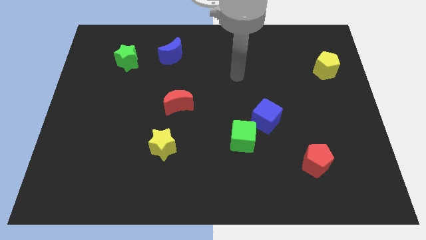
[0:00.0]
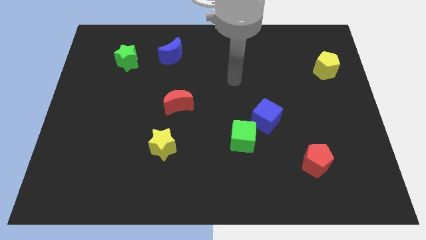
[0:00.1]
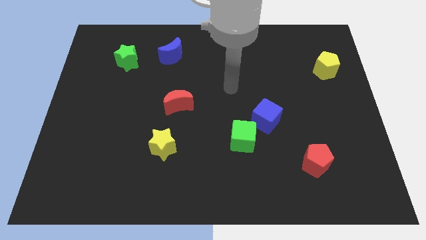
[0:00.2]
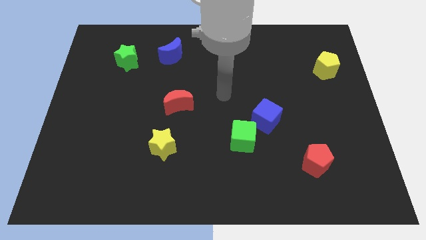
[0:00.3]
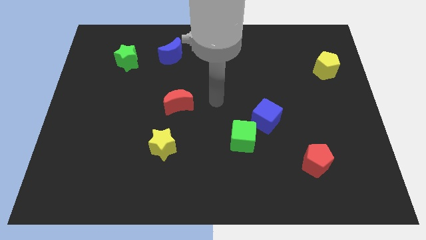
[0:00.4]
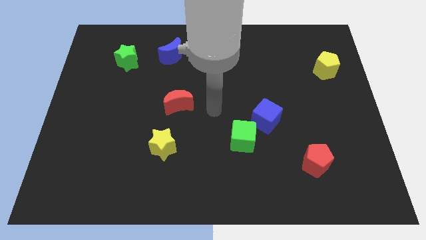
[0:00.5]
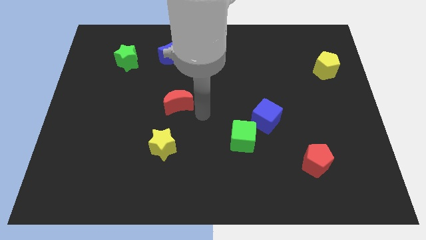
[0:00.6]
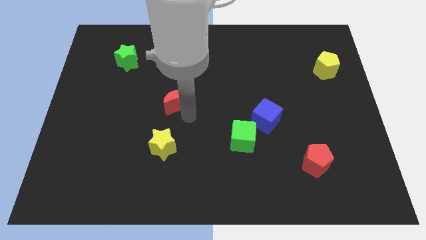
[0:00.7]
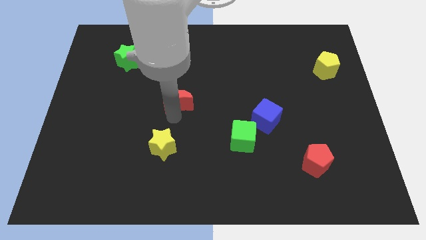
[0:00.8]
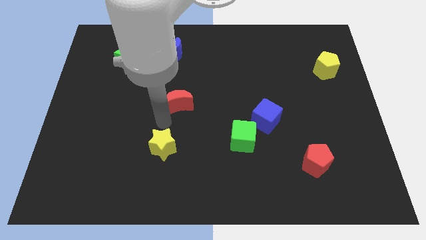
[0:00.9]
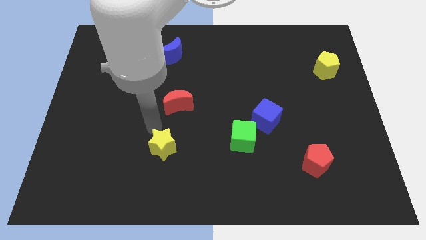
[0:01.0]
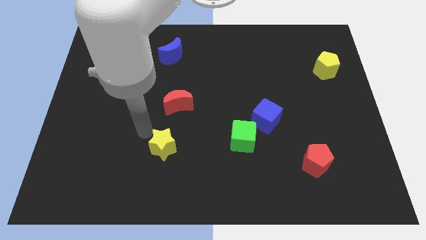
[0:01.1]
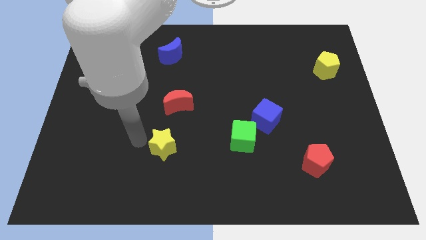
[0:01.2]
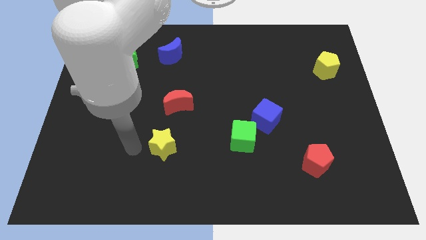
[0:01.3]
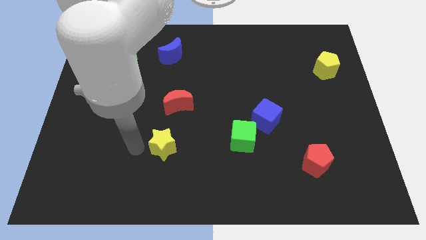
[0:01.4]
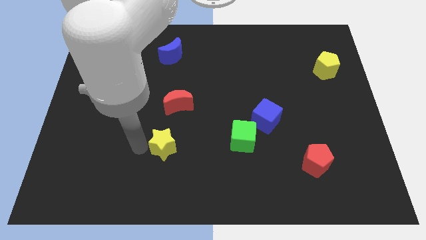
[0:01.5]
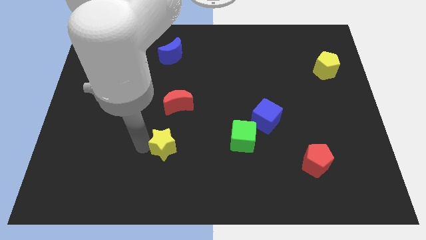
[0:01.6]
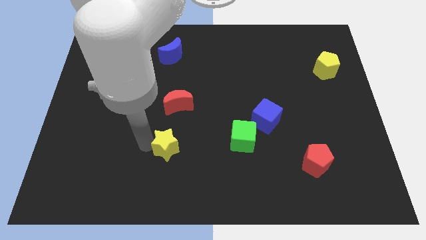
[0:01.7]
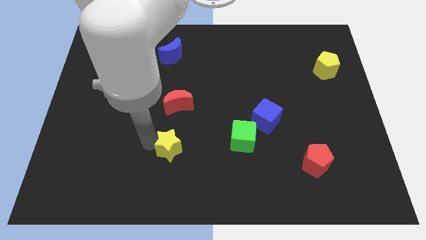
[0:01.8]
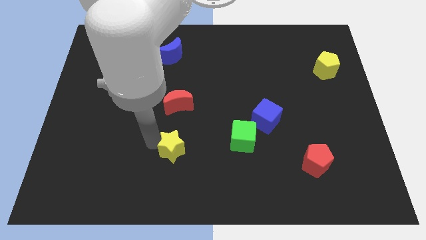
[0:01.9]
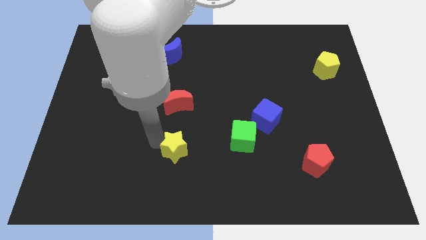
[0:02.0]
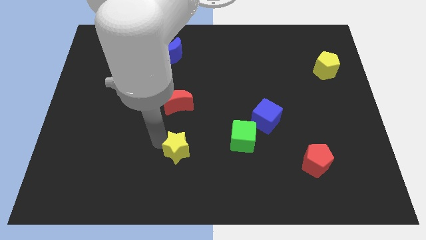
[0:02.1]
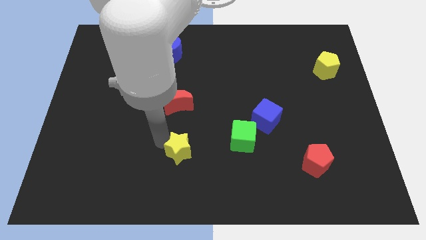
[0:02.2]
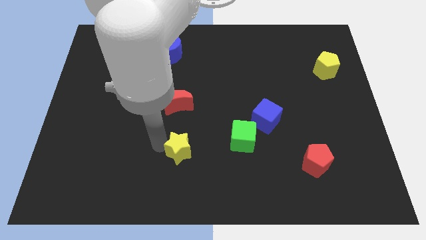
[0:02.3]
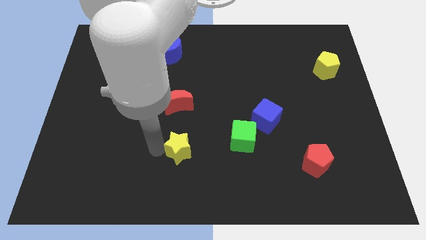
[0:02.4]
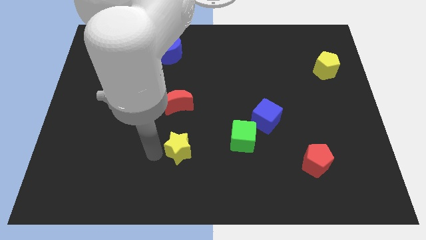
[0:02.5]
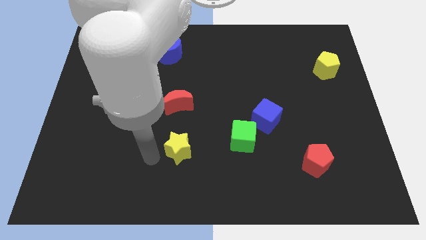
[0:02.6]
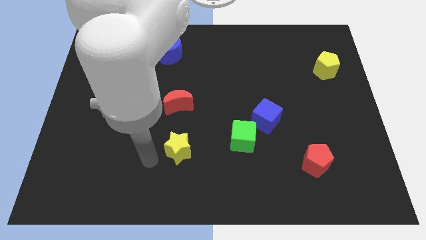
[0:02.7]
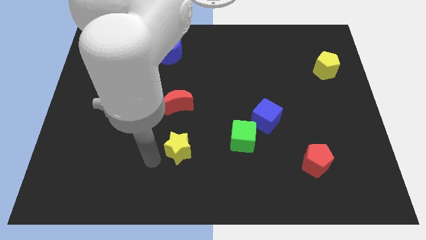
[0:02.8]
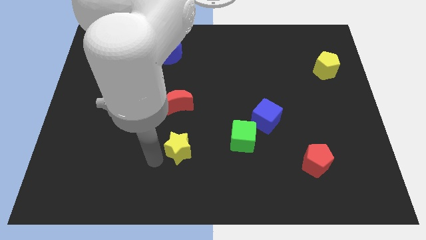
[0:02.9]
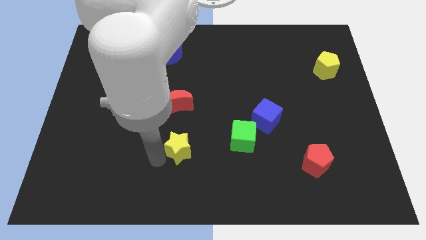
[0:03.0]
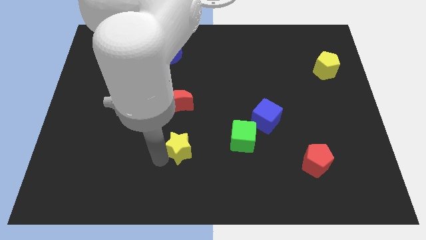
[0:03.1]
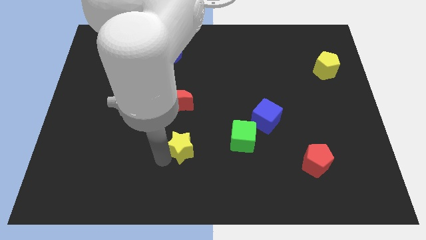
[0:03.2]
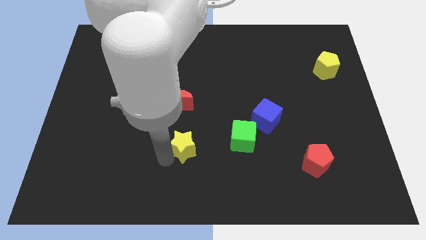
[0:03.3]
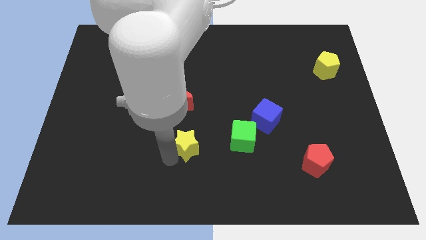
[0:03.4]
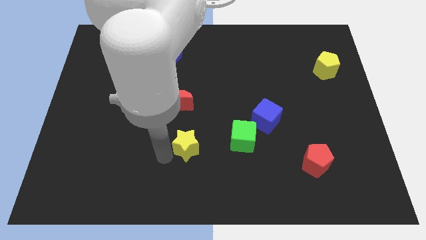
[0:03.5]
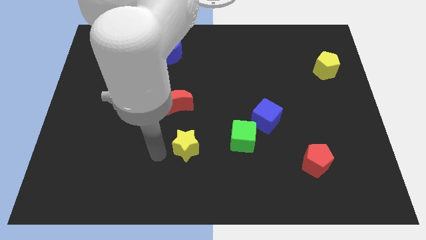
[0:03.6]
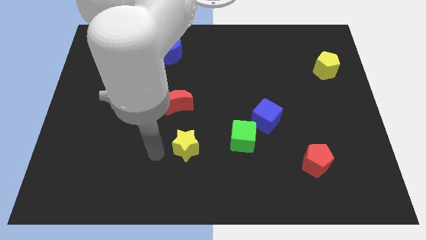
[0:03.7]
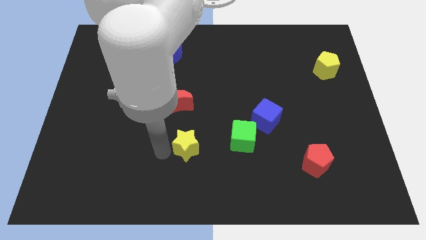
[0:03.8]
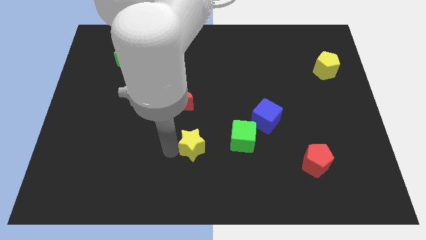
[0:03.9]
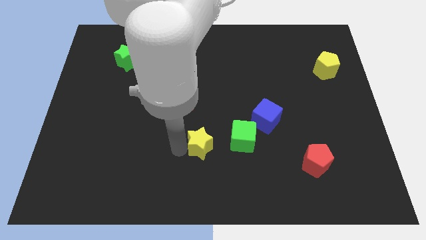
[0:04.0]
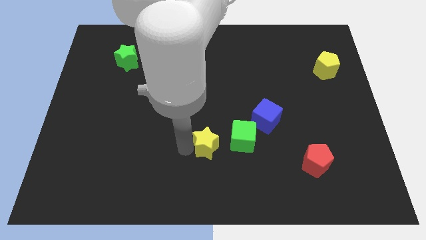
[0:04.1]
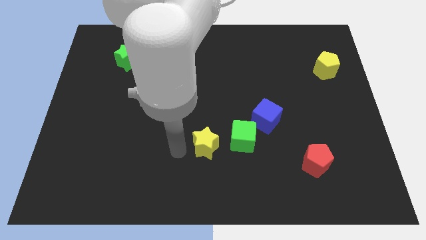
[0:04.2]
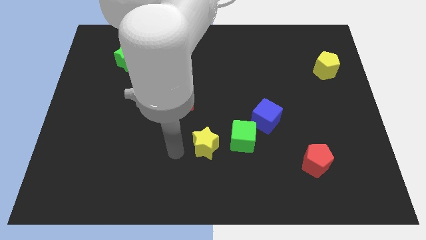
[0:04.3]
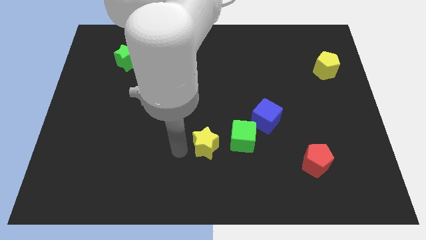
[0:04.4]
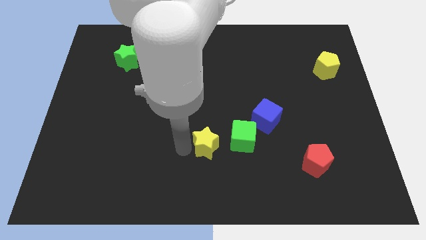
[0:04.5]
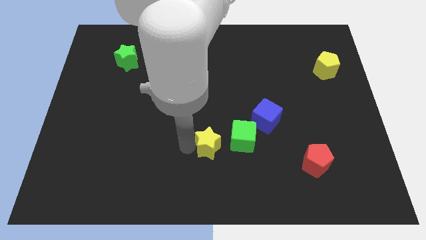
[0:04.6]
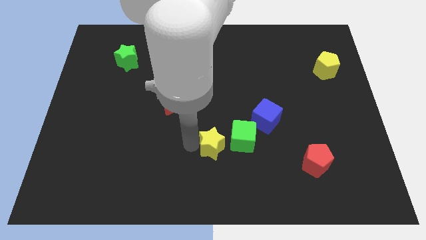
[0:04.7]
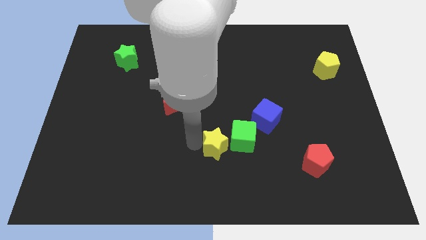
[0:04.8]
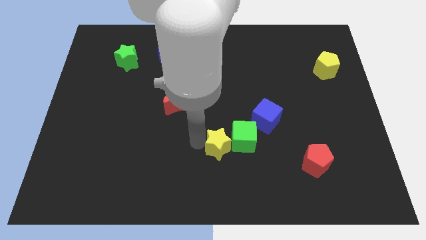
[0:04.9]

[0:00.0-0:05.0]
slide the yellow star towards the green cube

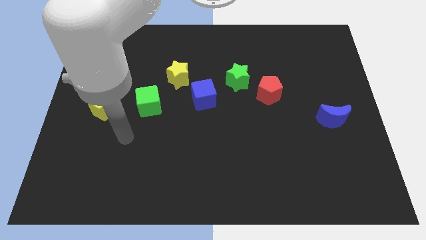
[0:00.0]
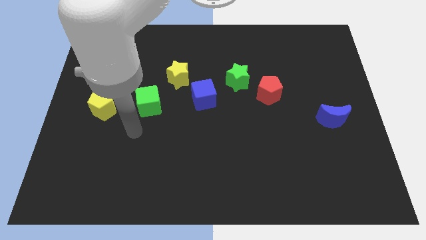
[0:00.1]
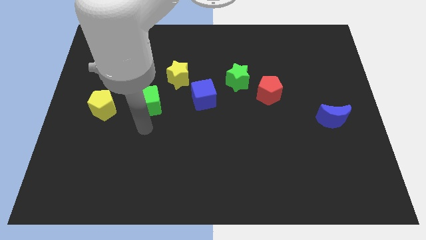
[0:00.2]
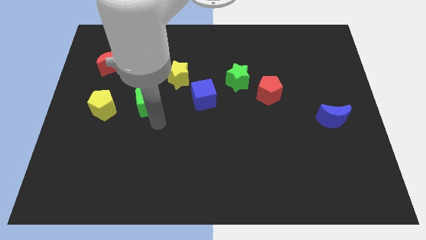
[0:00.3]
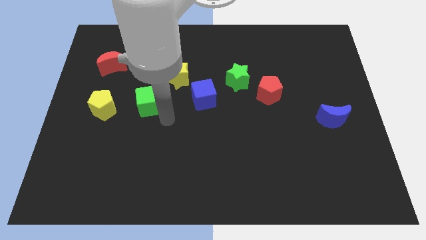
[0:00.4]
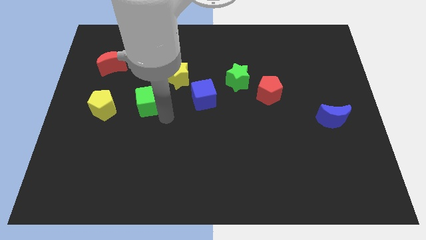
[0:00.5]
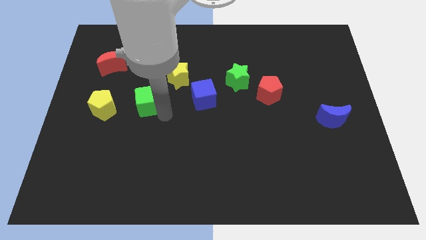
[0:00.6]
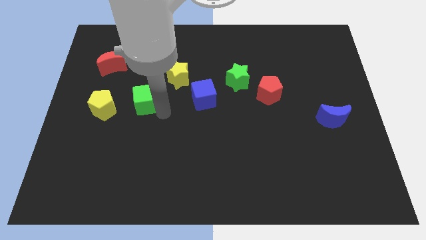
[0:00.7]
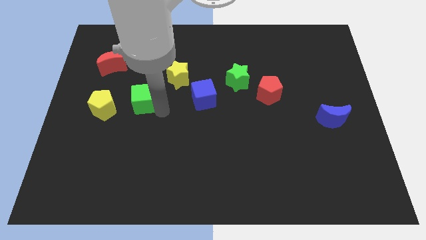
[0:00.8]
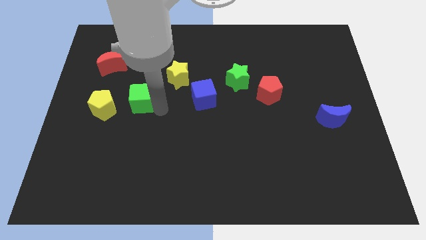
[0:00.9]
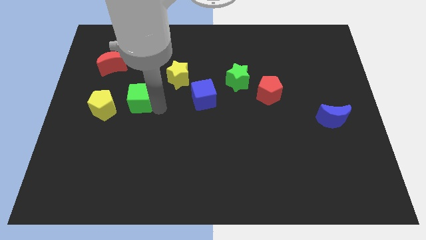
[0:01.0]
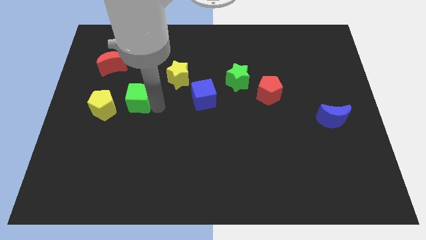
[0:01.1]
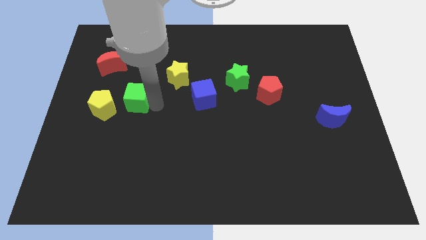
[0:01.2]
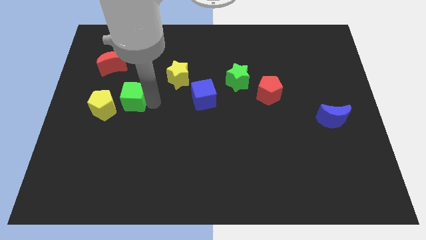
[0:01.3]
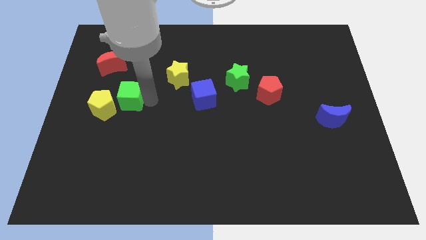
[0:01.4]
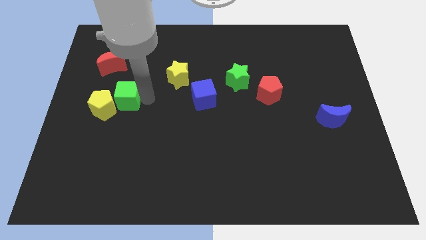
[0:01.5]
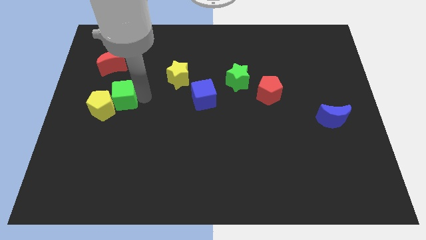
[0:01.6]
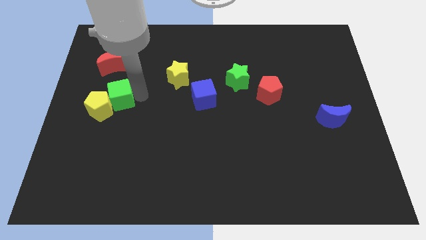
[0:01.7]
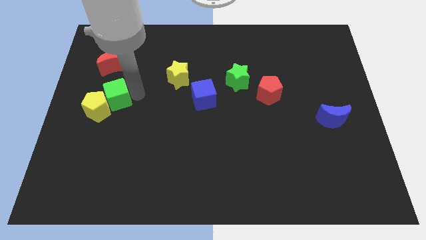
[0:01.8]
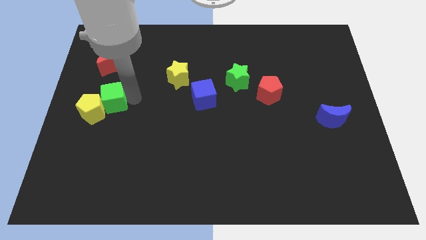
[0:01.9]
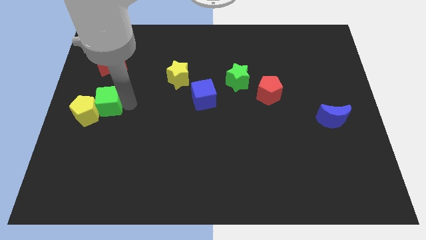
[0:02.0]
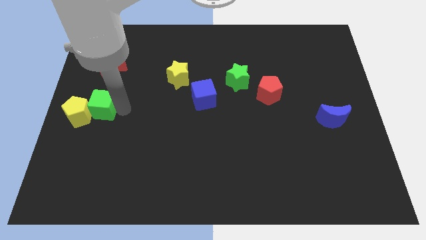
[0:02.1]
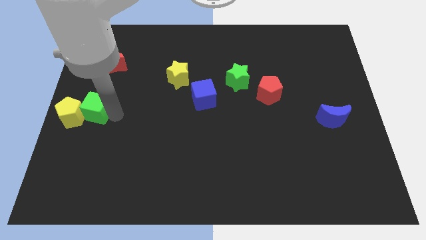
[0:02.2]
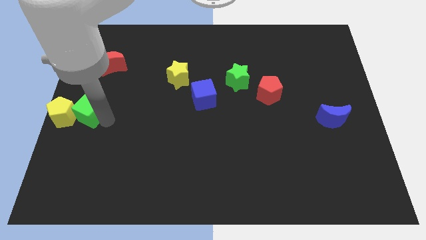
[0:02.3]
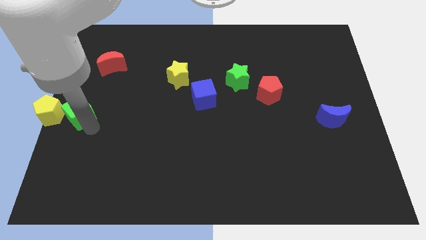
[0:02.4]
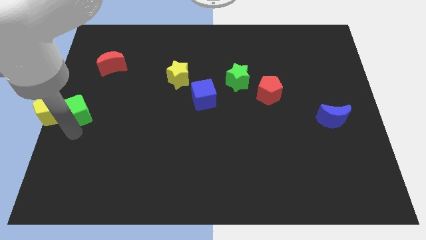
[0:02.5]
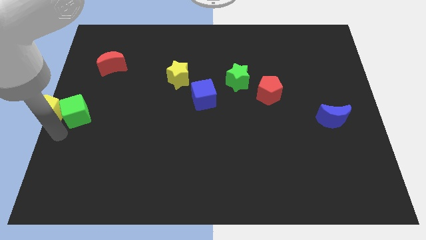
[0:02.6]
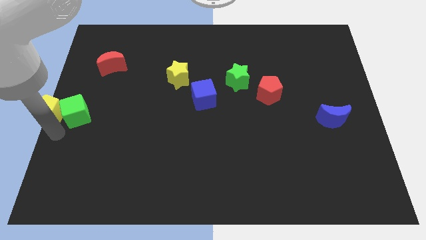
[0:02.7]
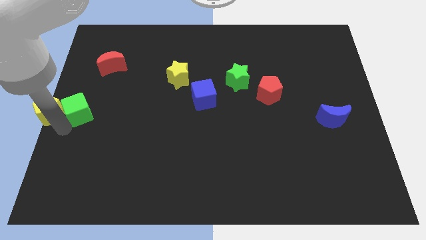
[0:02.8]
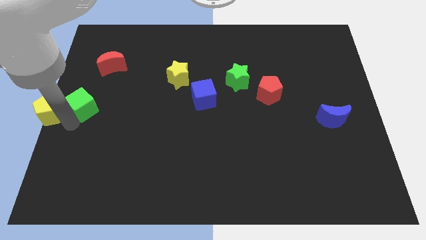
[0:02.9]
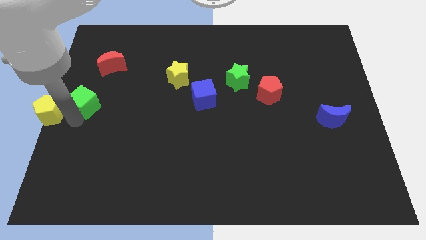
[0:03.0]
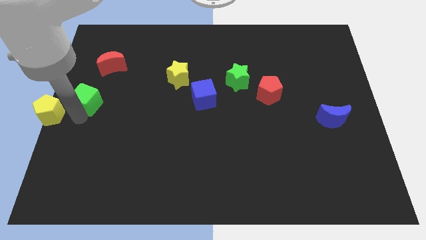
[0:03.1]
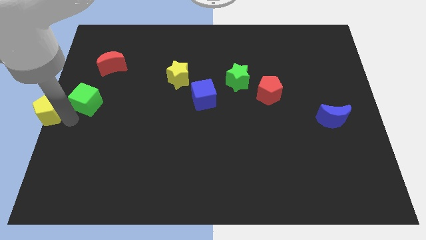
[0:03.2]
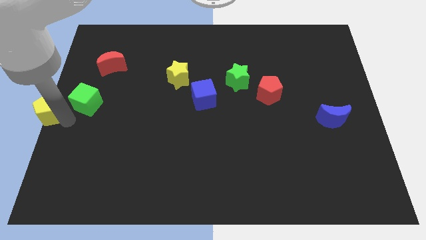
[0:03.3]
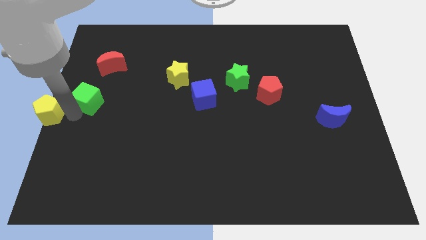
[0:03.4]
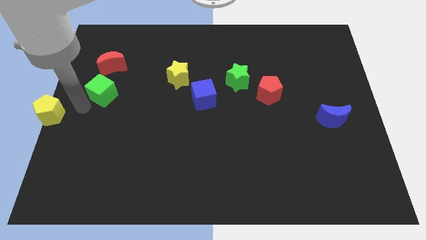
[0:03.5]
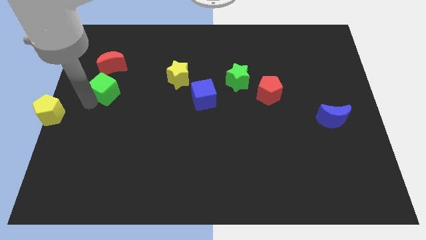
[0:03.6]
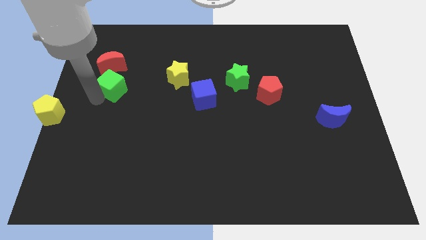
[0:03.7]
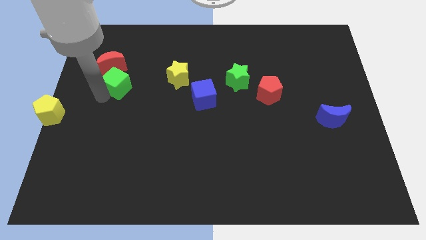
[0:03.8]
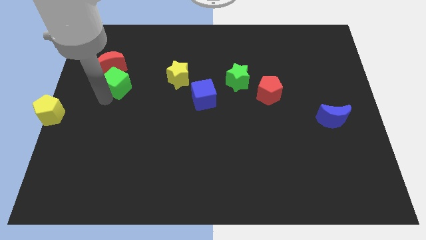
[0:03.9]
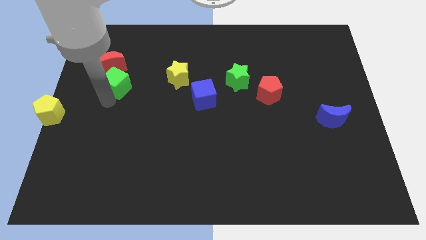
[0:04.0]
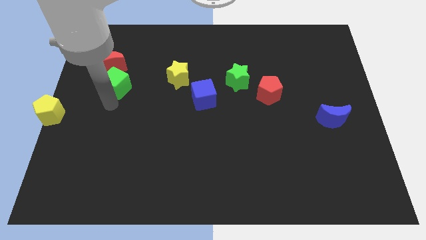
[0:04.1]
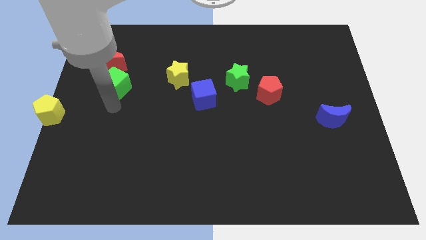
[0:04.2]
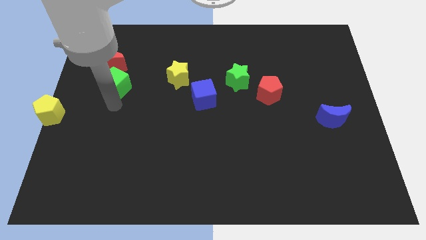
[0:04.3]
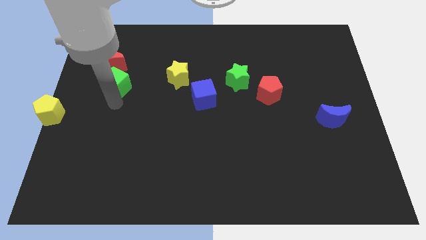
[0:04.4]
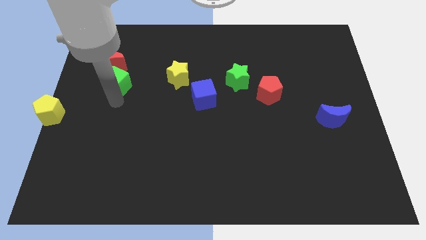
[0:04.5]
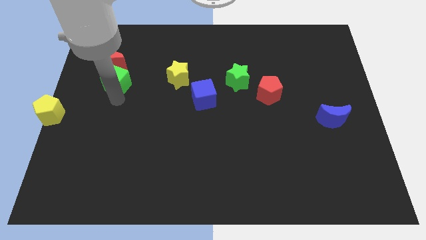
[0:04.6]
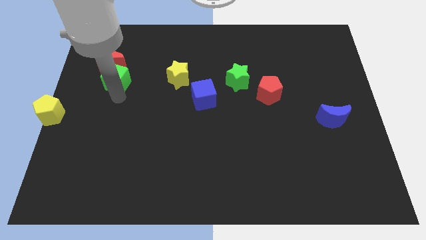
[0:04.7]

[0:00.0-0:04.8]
put the green cube close to the red moon
